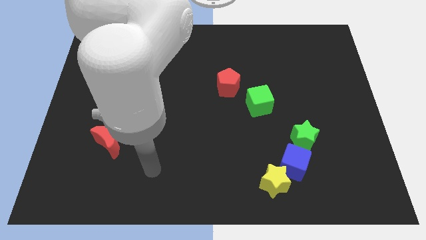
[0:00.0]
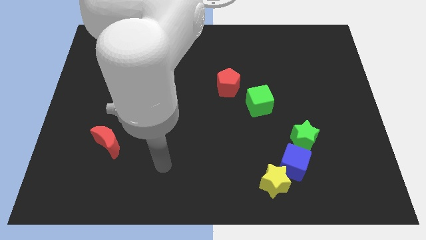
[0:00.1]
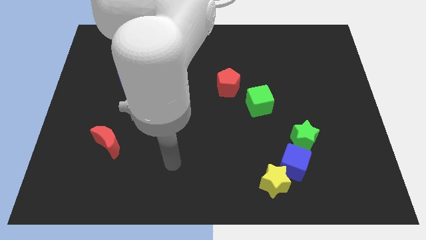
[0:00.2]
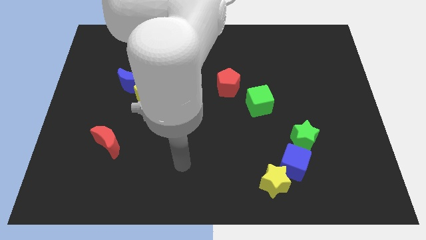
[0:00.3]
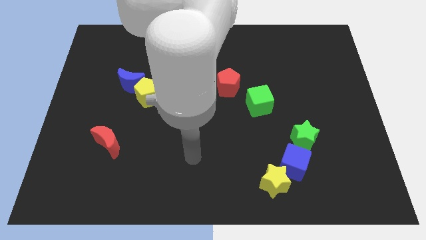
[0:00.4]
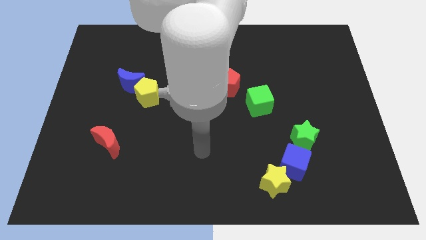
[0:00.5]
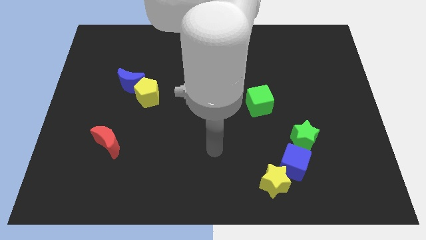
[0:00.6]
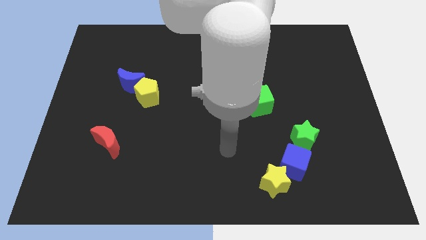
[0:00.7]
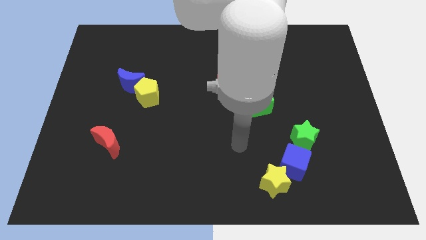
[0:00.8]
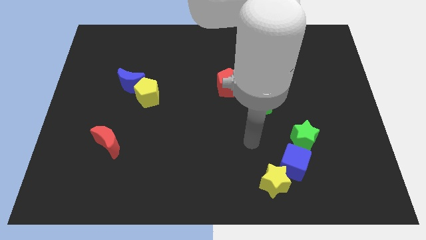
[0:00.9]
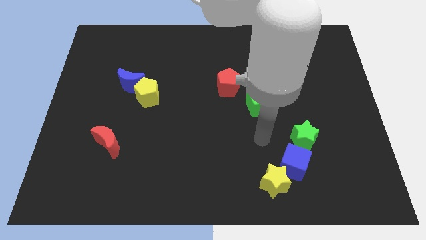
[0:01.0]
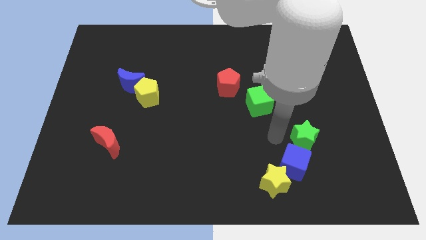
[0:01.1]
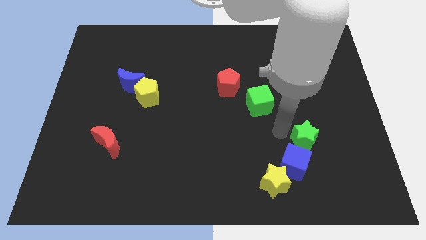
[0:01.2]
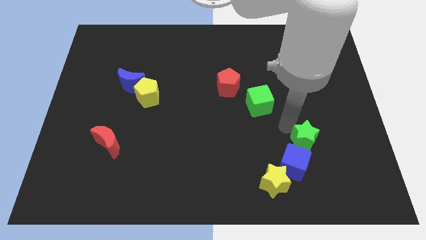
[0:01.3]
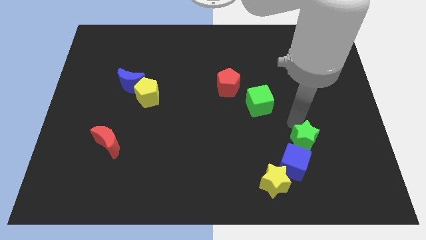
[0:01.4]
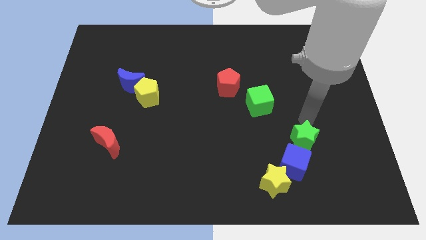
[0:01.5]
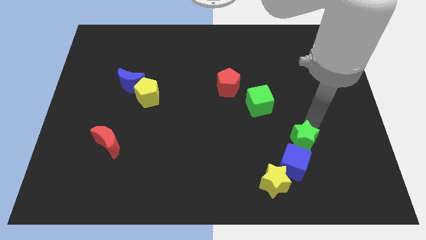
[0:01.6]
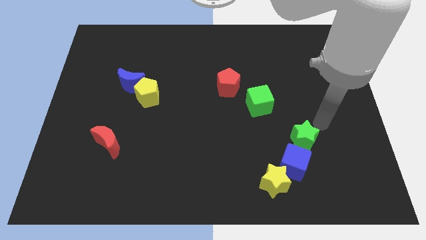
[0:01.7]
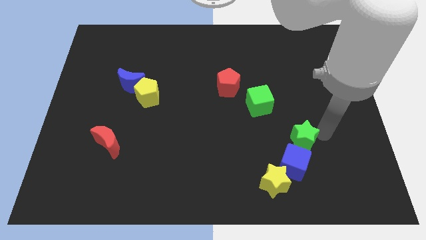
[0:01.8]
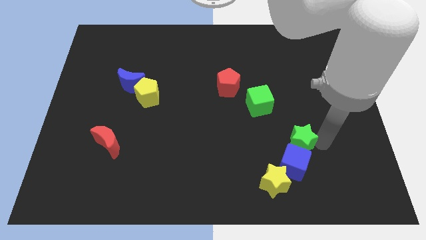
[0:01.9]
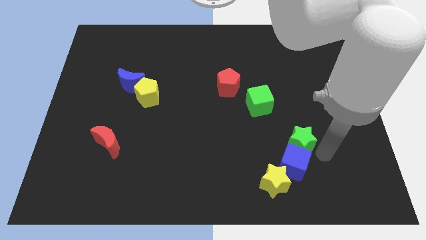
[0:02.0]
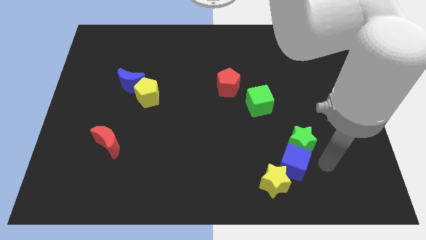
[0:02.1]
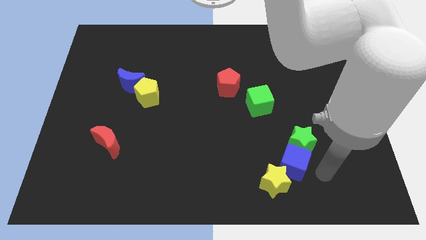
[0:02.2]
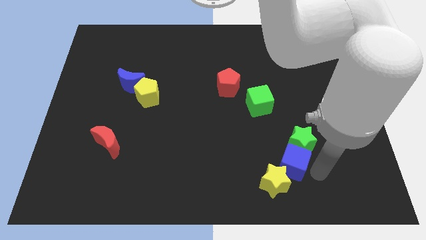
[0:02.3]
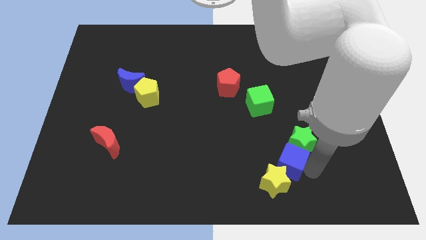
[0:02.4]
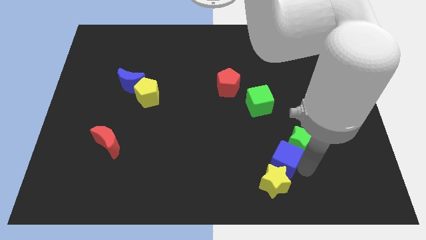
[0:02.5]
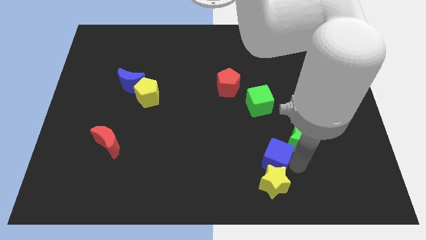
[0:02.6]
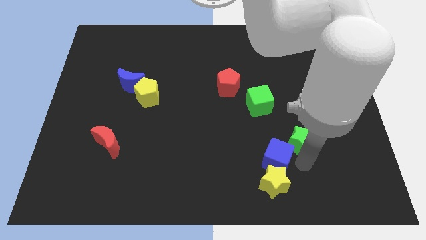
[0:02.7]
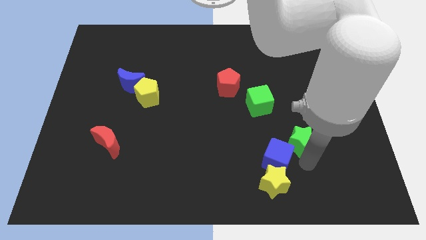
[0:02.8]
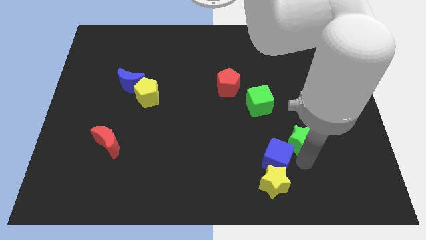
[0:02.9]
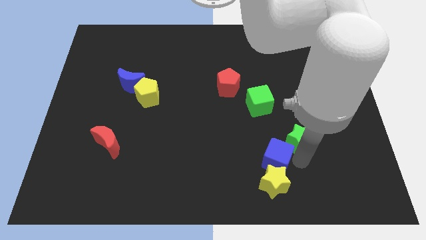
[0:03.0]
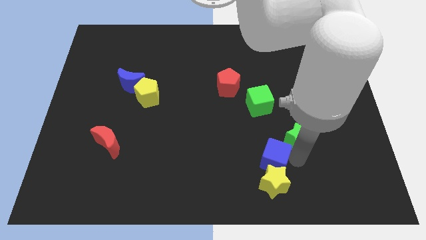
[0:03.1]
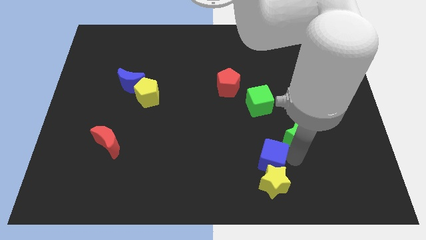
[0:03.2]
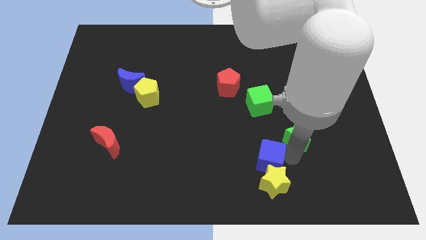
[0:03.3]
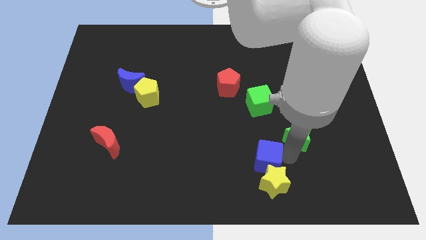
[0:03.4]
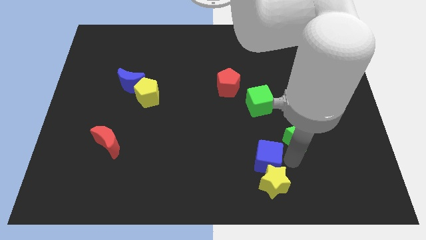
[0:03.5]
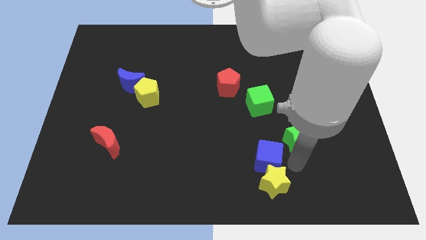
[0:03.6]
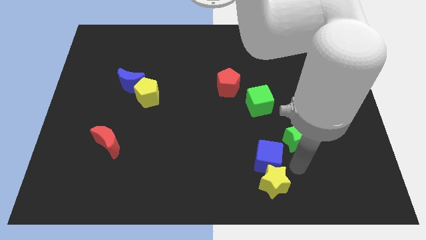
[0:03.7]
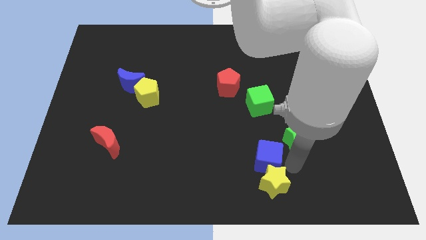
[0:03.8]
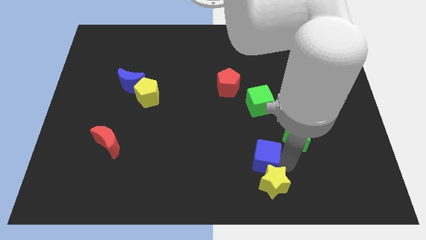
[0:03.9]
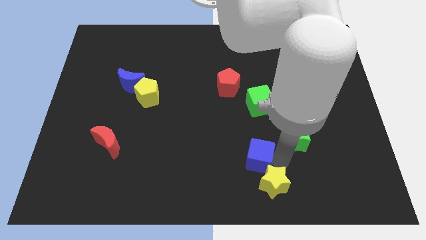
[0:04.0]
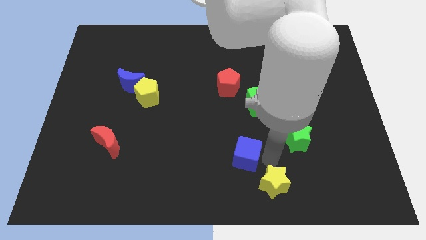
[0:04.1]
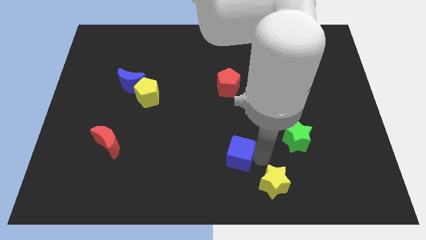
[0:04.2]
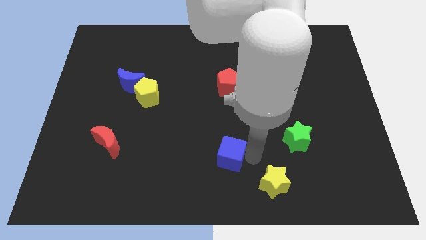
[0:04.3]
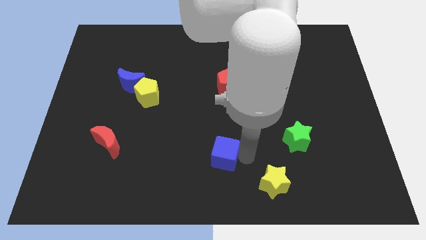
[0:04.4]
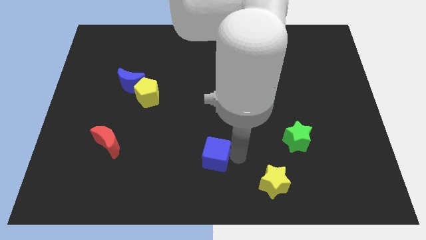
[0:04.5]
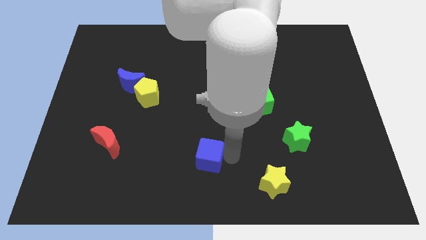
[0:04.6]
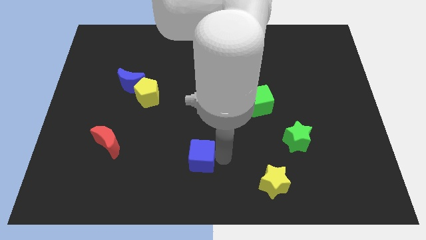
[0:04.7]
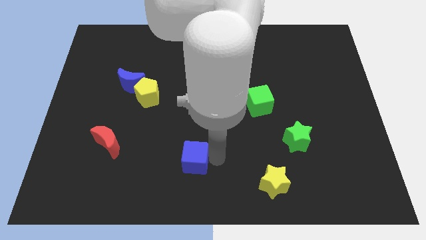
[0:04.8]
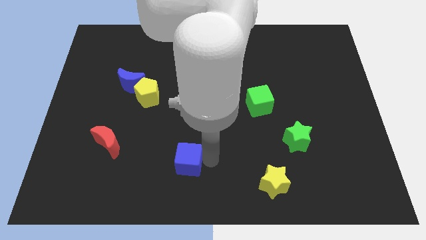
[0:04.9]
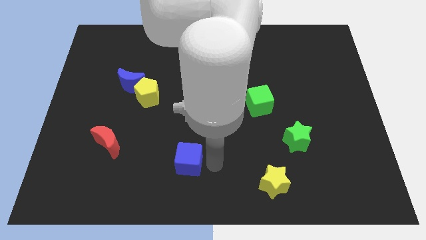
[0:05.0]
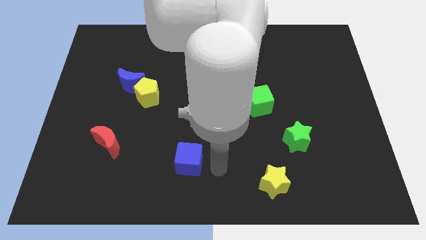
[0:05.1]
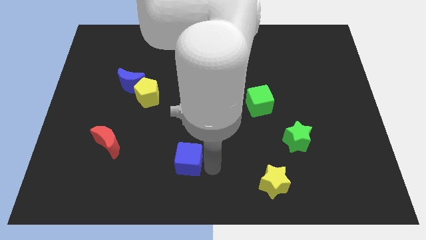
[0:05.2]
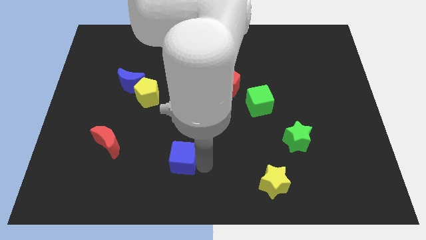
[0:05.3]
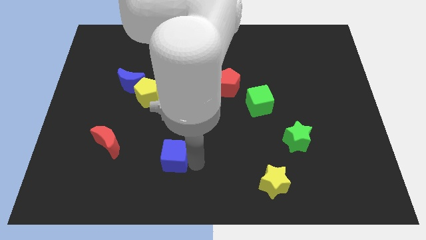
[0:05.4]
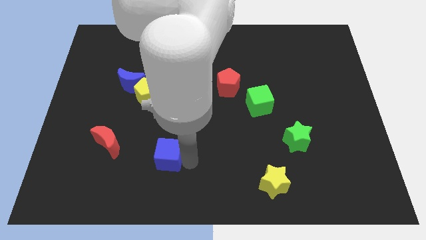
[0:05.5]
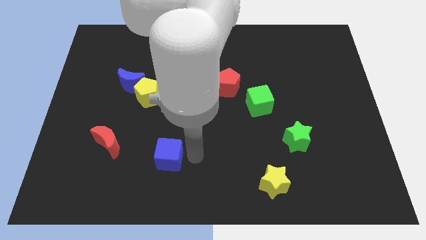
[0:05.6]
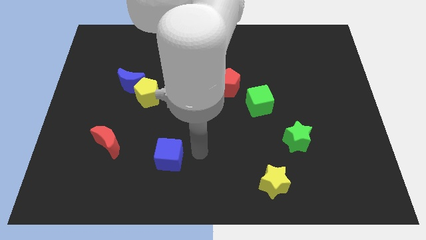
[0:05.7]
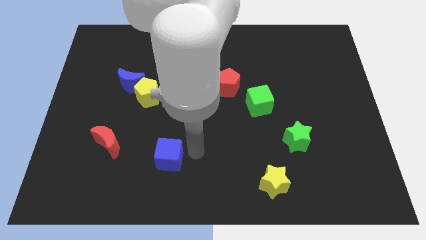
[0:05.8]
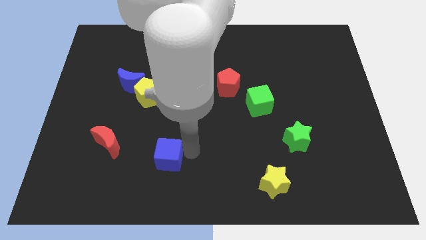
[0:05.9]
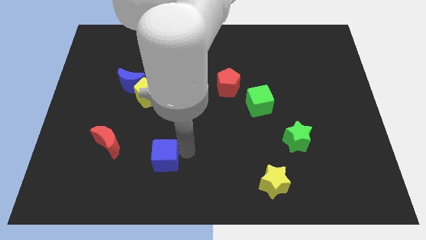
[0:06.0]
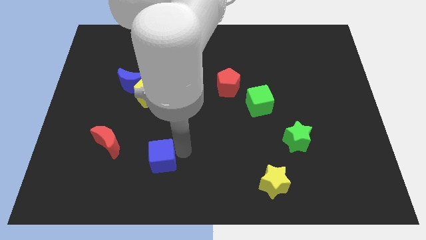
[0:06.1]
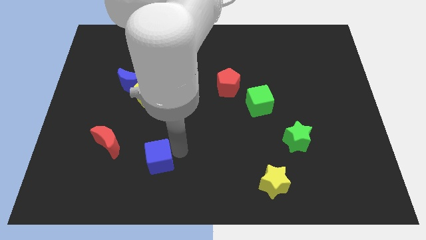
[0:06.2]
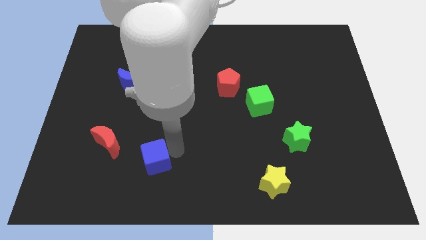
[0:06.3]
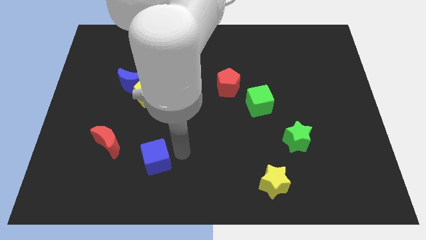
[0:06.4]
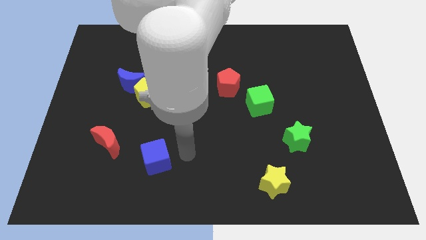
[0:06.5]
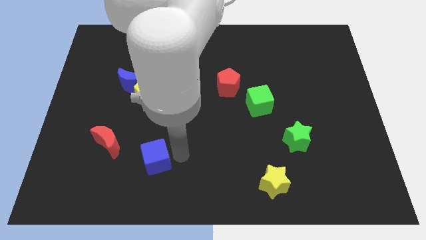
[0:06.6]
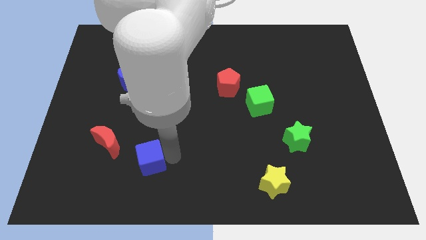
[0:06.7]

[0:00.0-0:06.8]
slide the blue cube diagonally down and to the right of the red moon
